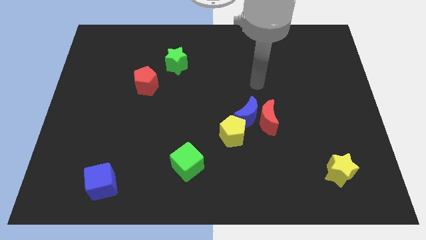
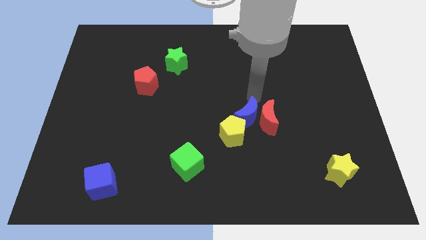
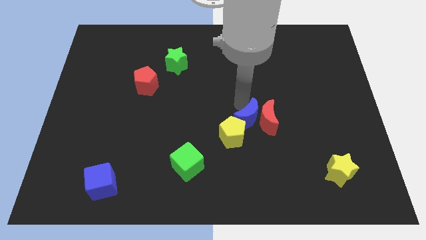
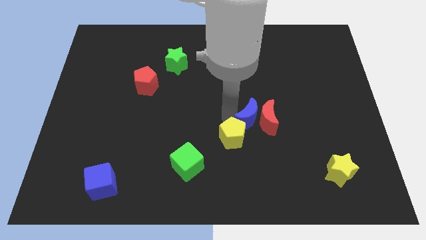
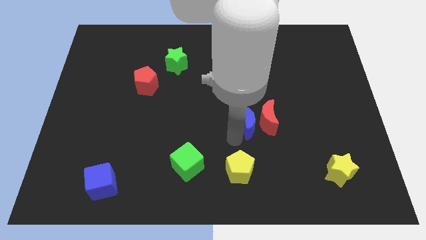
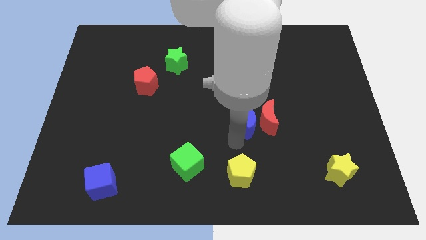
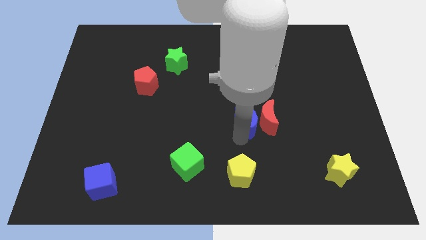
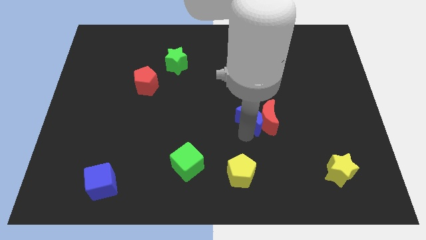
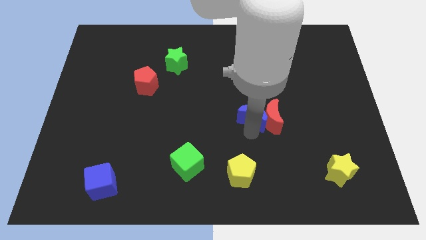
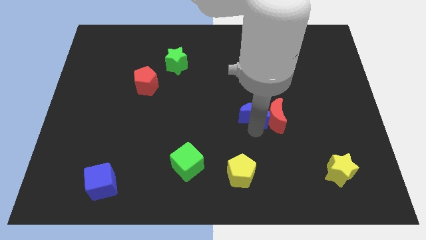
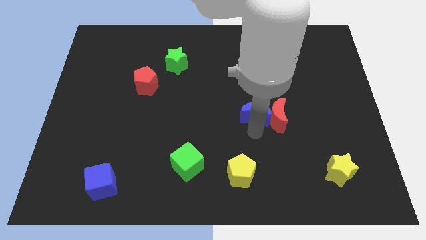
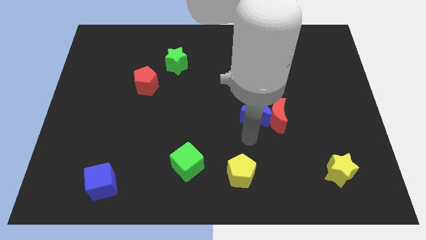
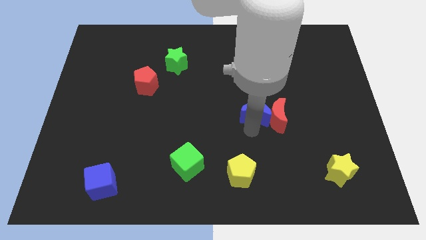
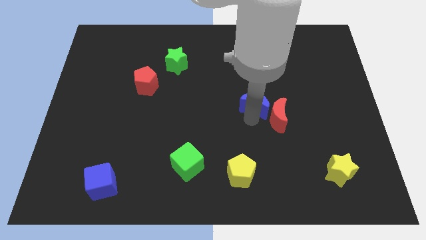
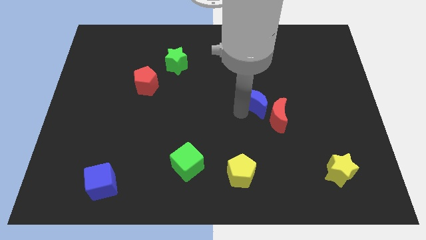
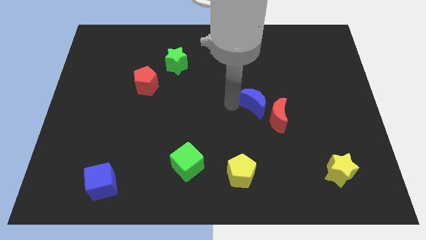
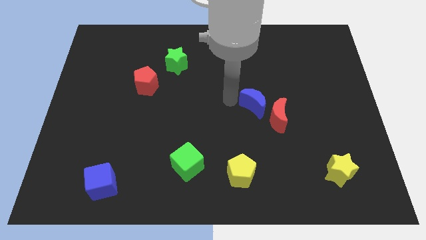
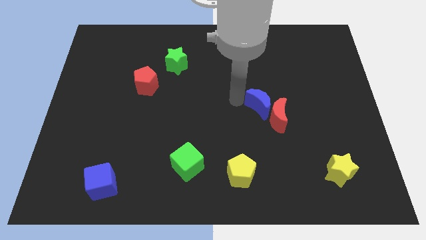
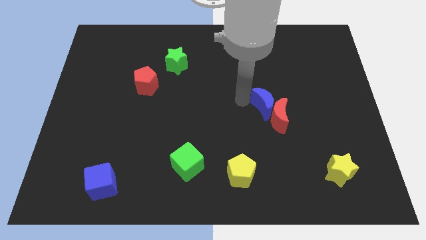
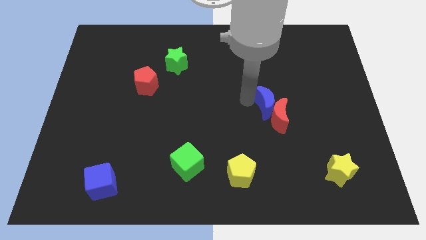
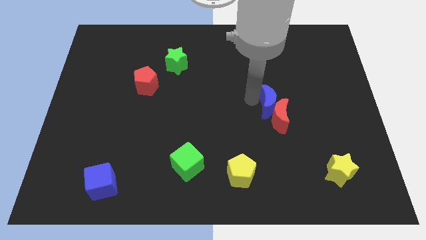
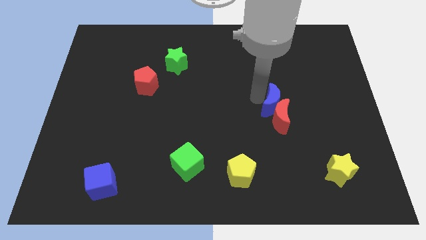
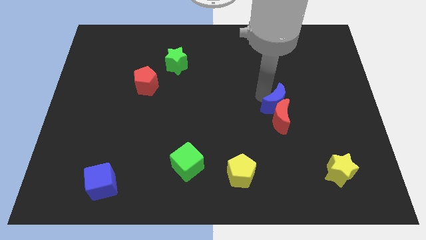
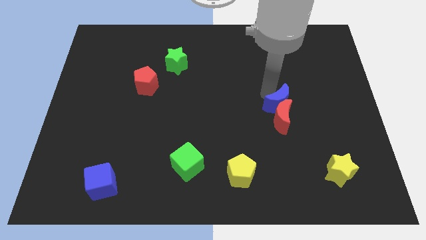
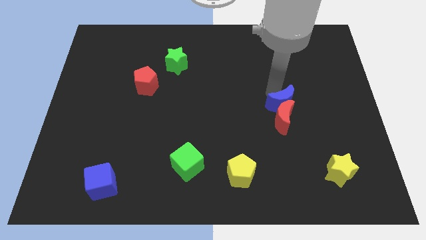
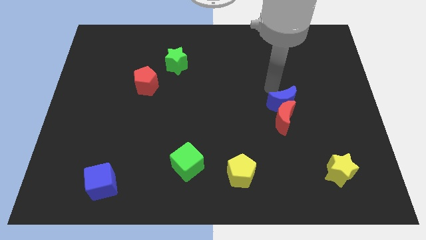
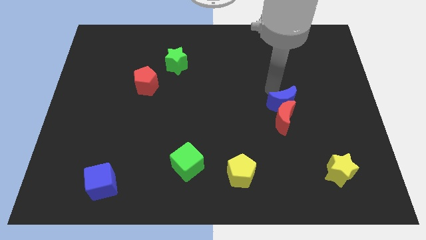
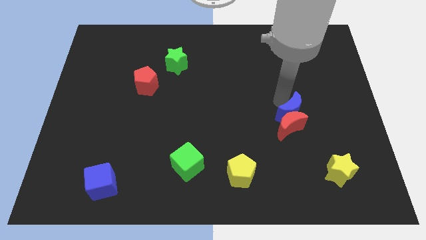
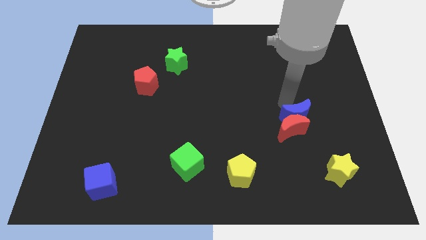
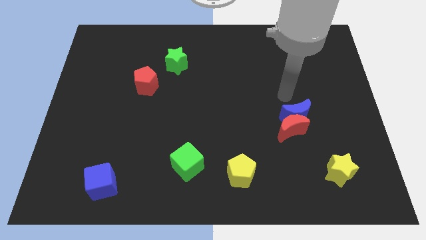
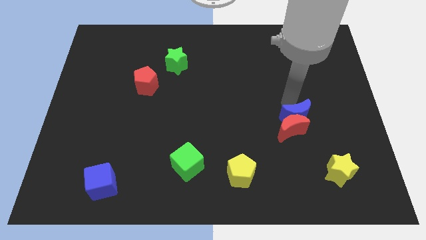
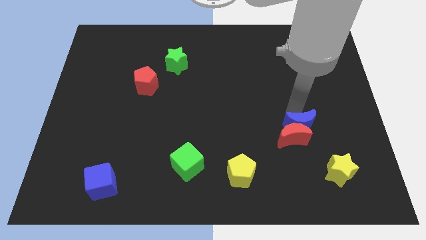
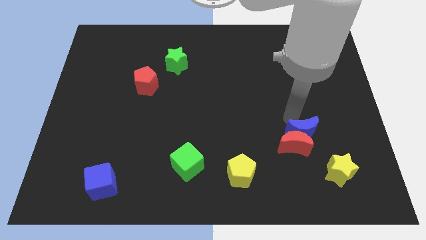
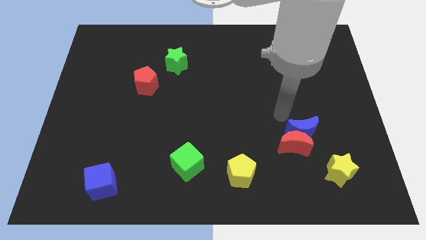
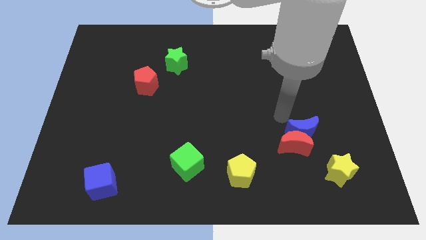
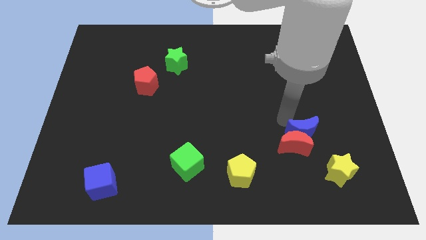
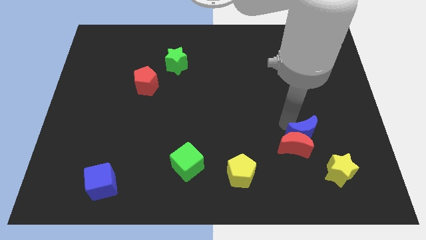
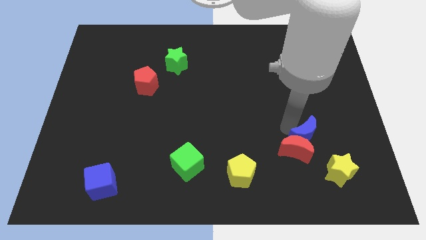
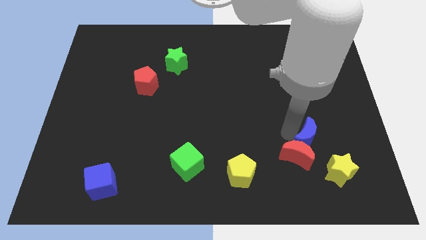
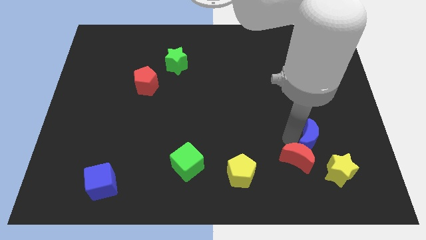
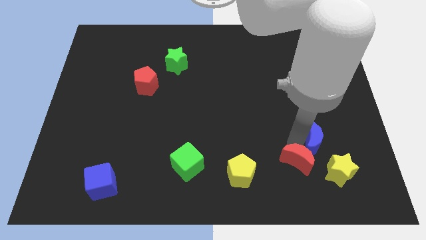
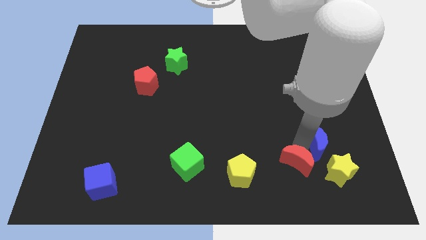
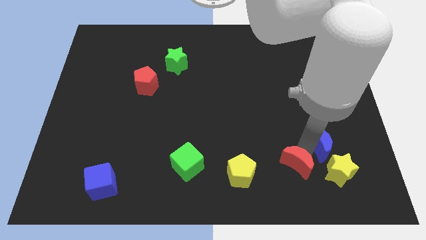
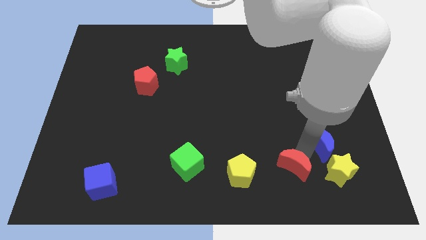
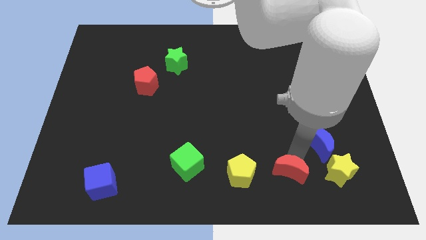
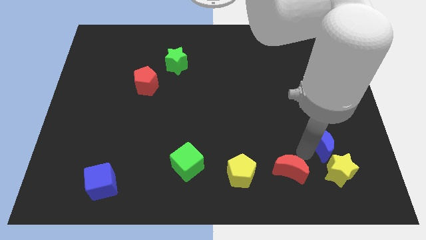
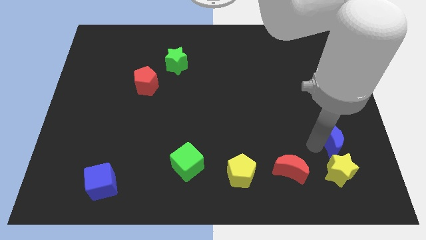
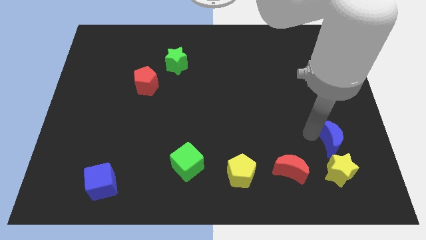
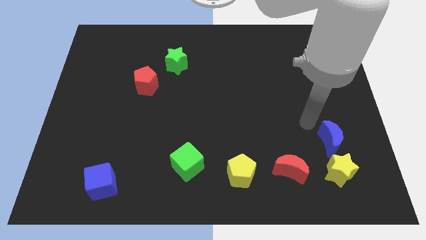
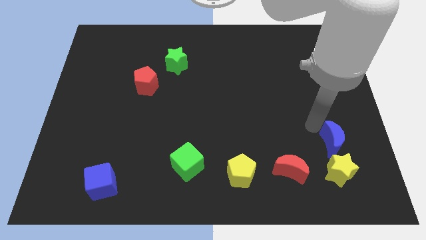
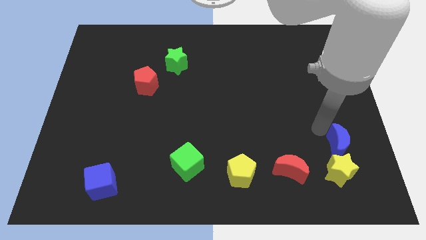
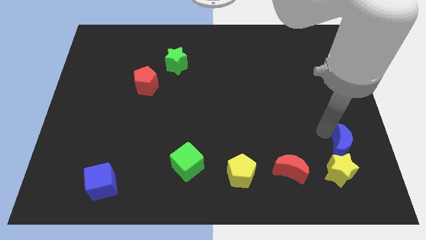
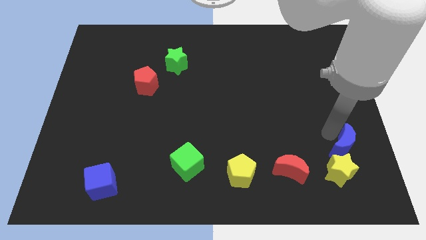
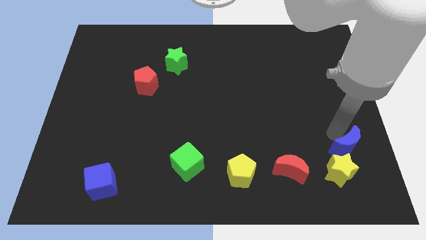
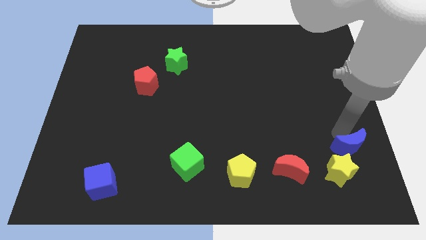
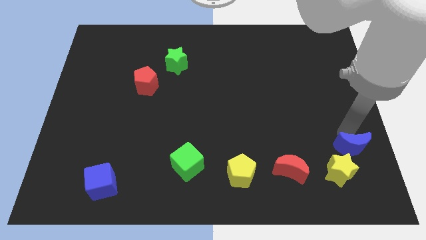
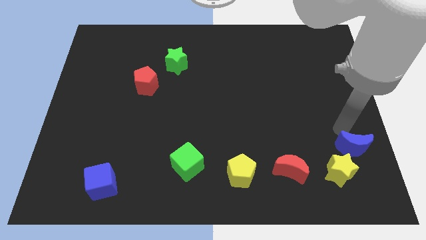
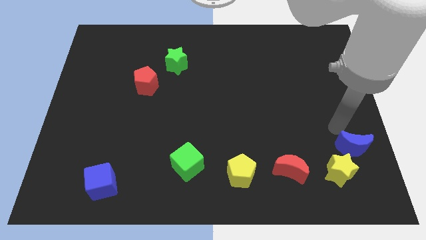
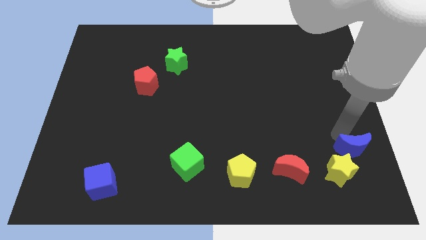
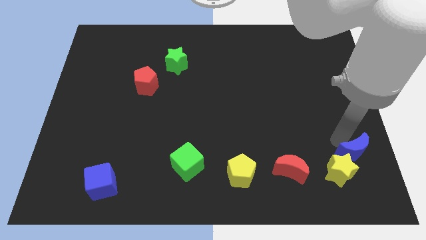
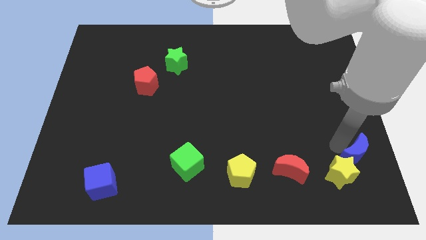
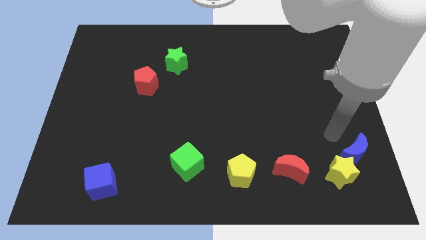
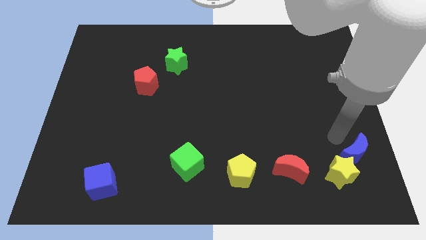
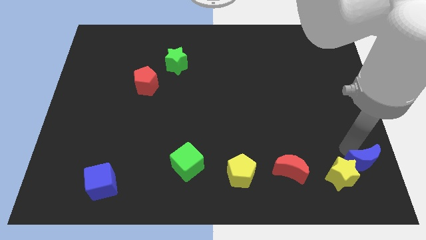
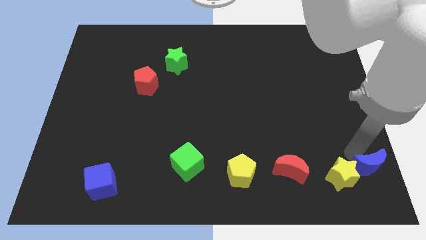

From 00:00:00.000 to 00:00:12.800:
push the blue moon to the bottom right of the board

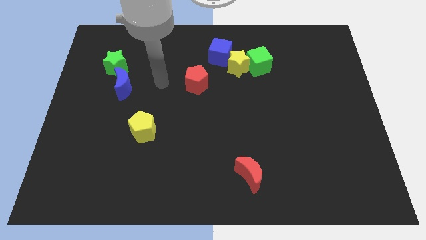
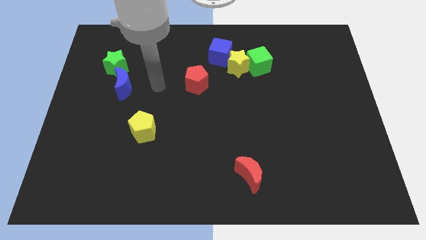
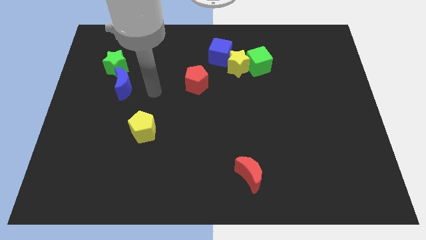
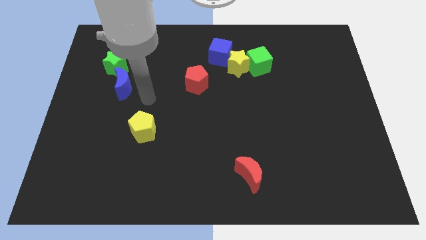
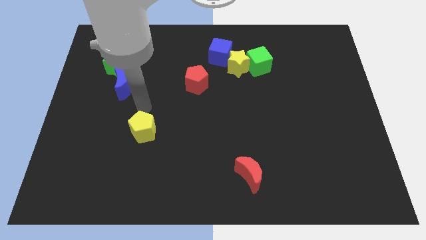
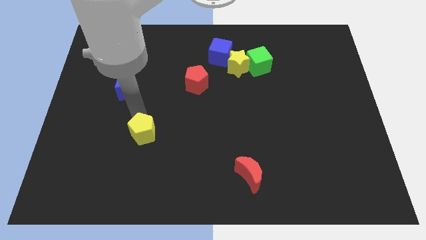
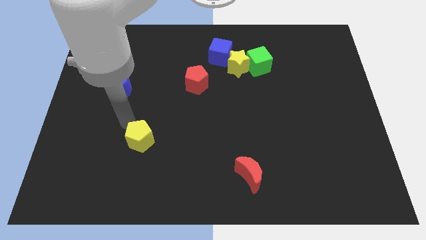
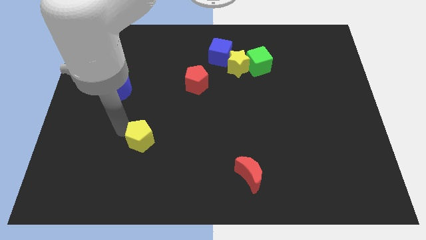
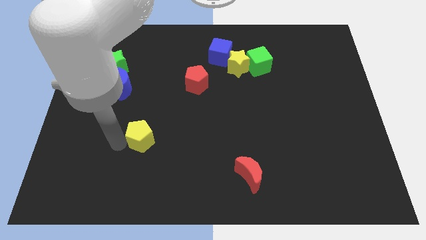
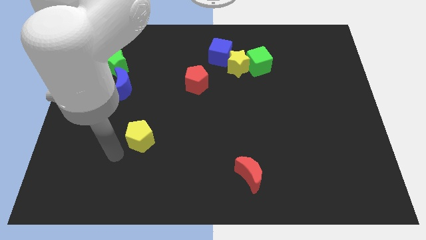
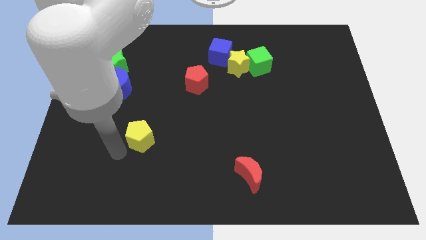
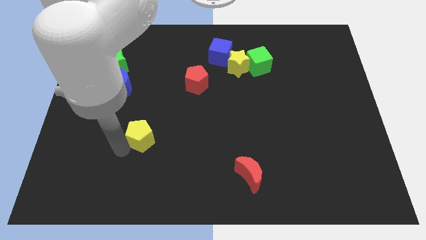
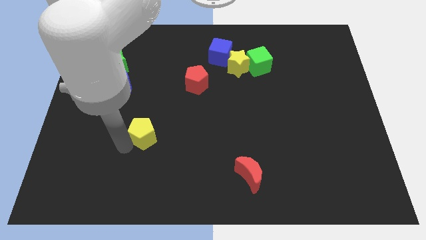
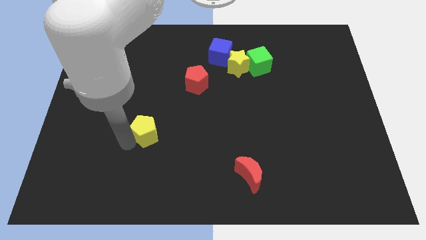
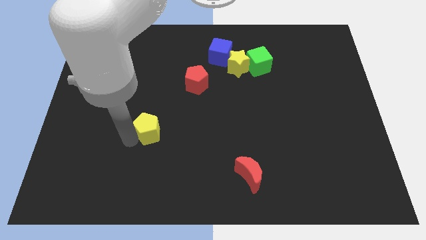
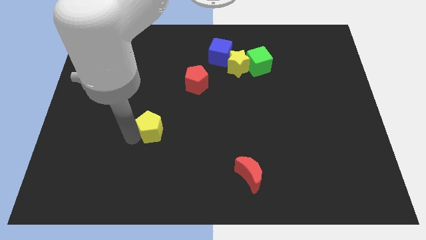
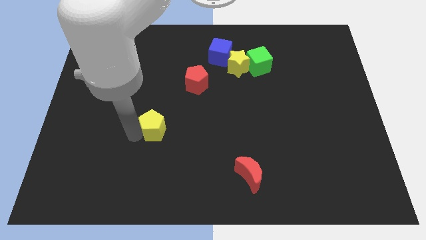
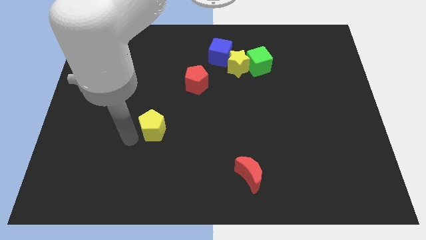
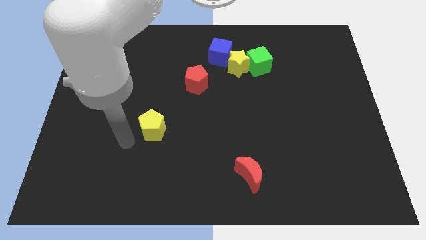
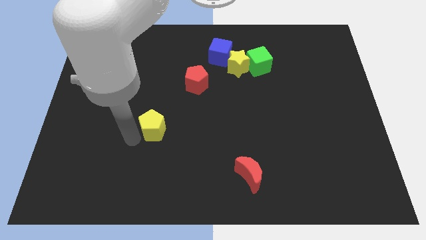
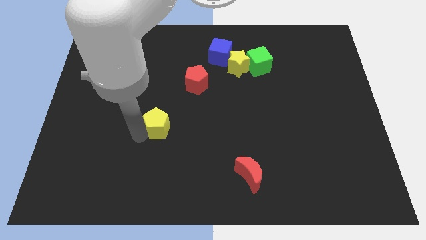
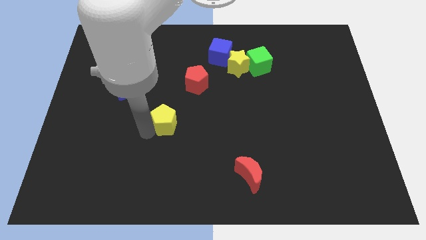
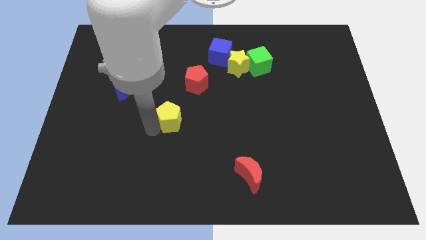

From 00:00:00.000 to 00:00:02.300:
slide the yellow pentagon to the center of the board
